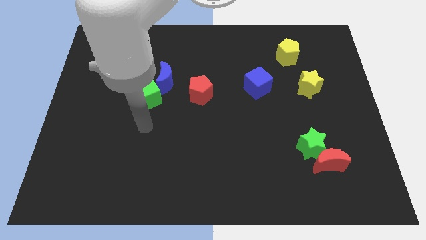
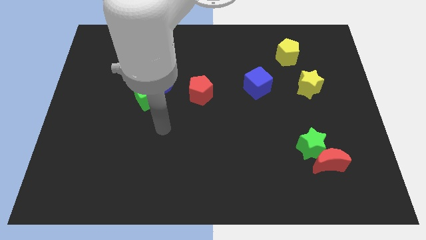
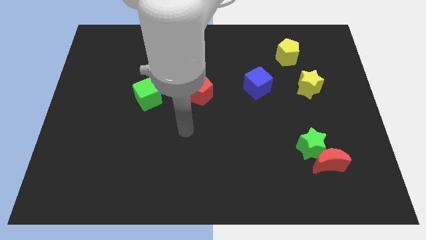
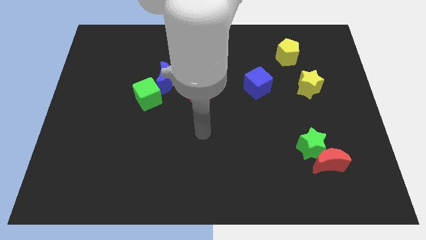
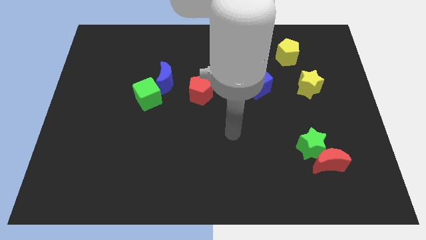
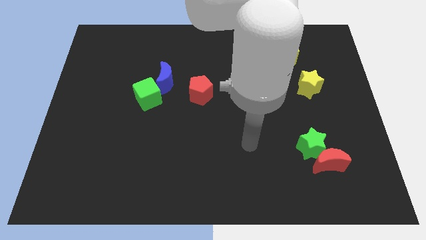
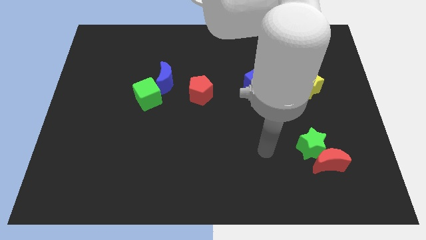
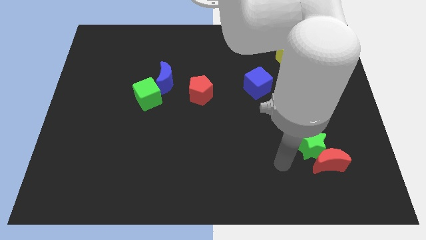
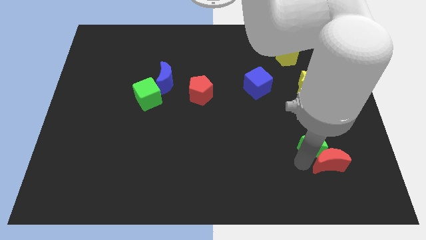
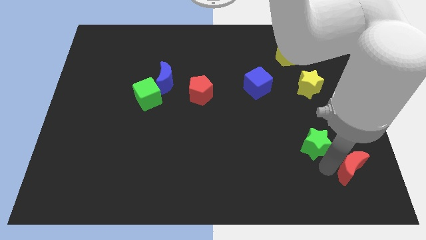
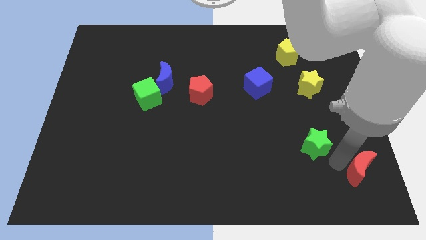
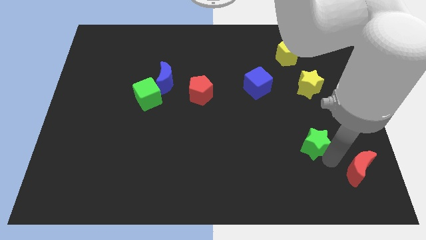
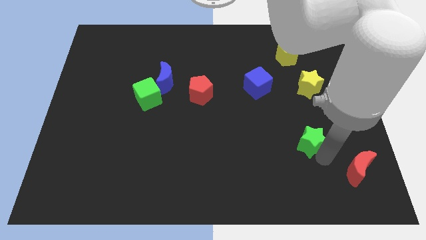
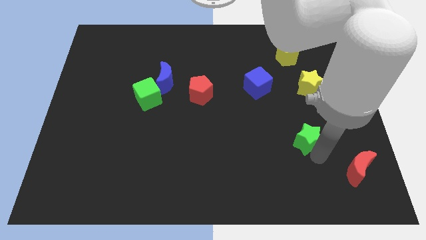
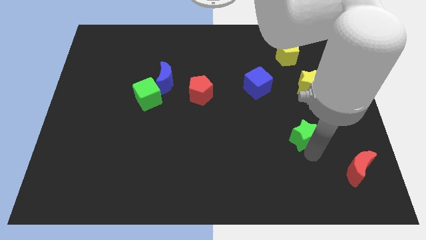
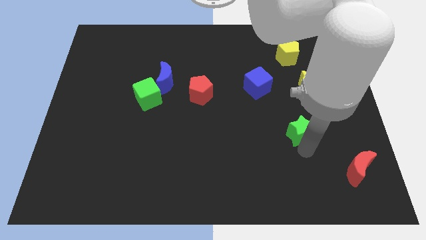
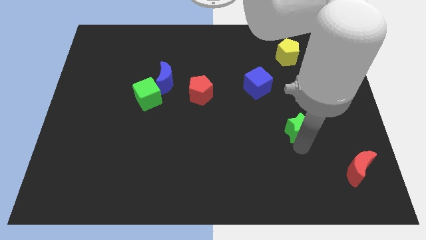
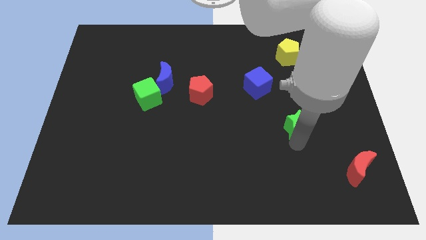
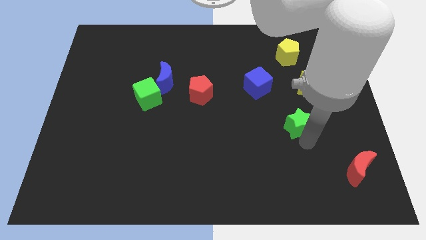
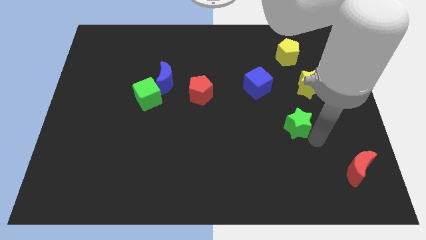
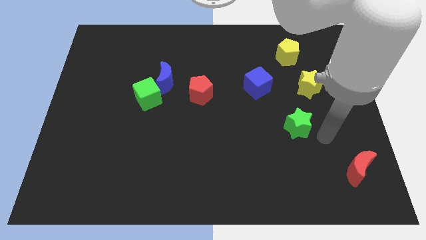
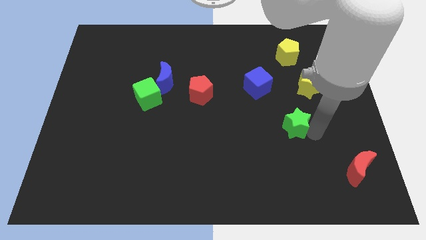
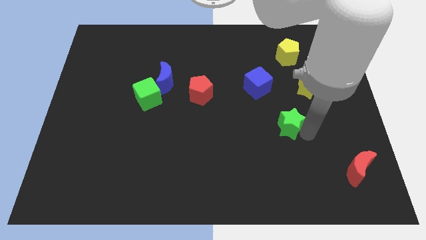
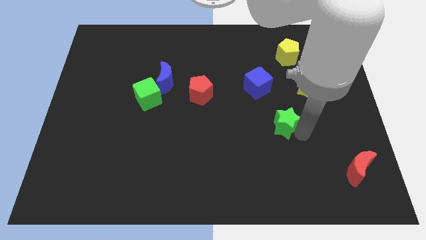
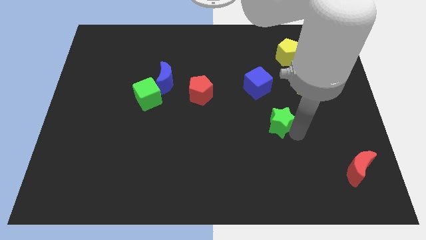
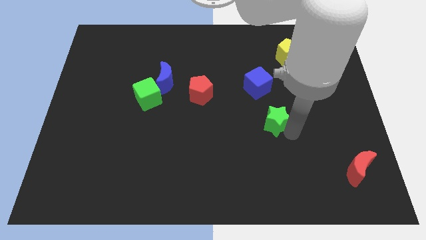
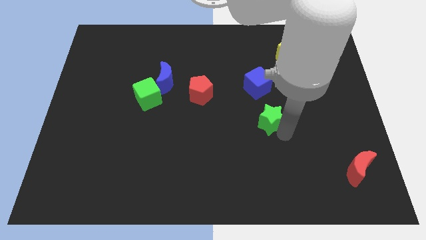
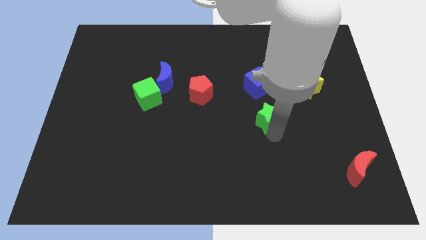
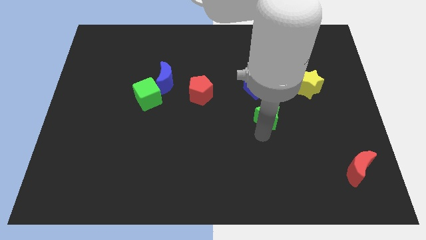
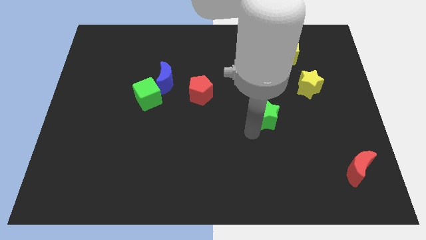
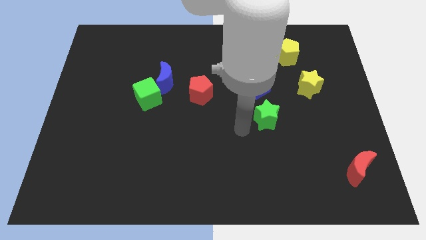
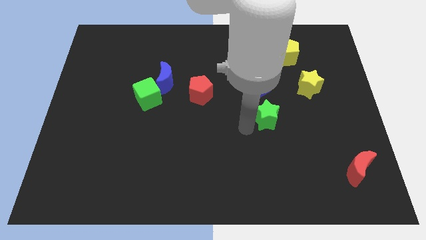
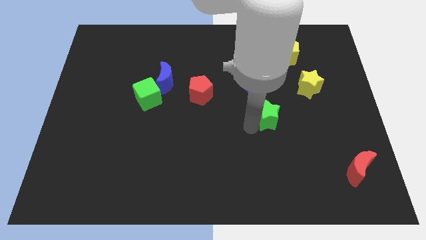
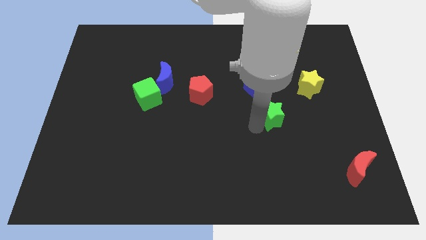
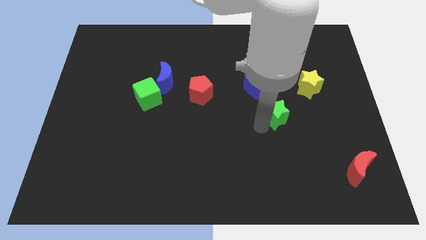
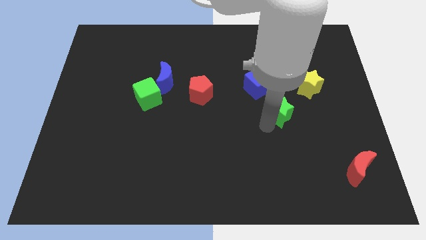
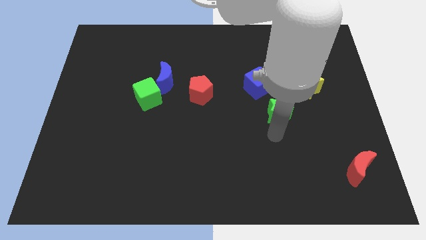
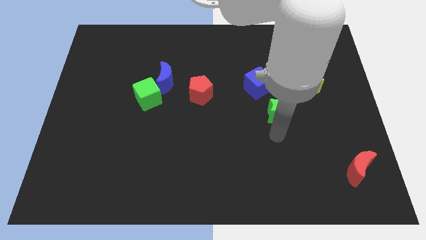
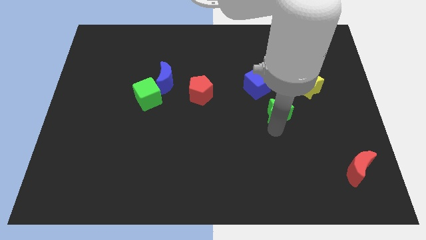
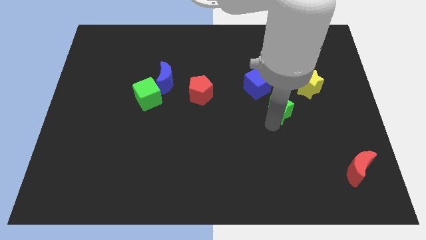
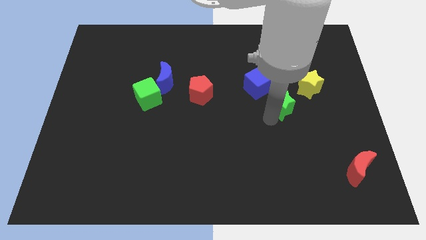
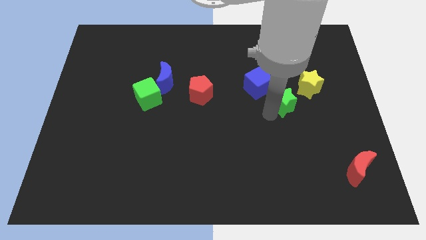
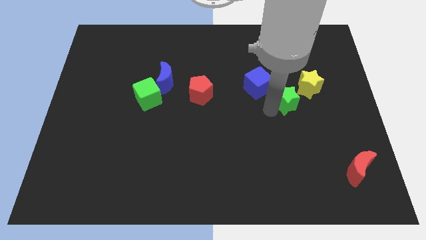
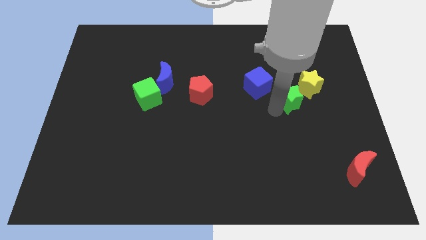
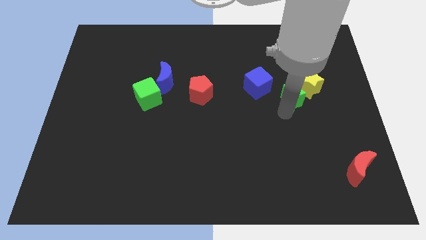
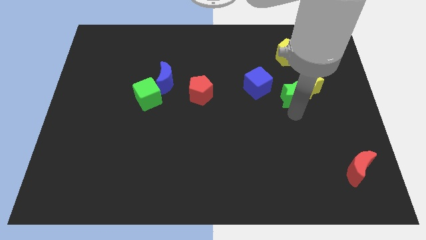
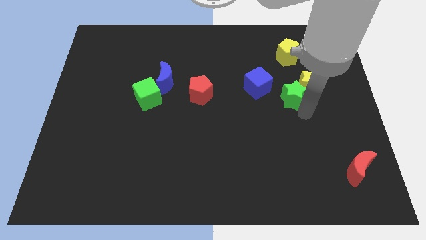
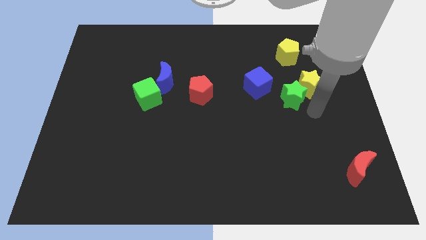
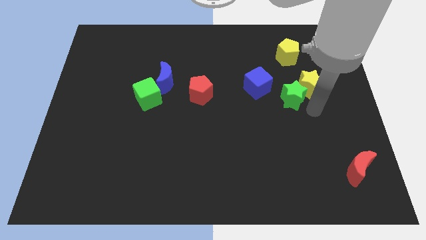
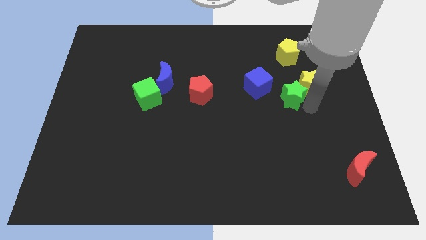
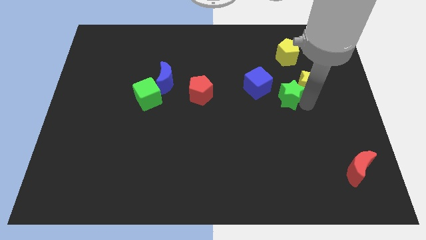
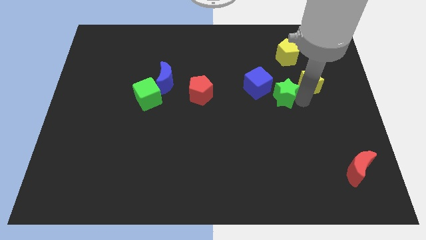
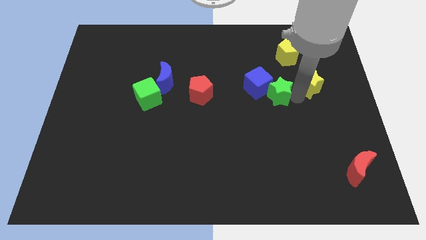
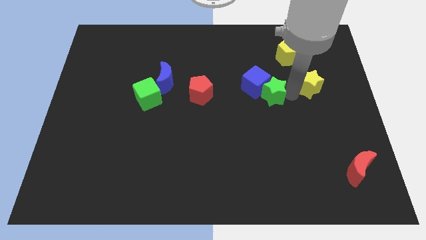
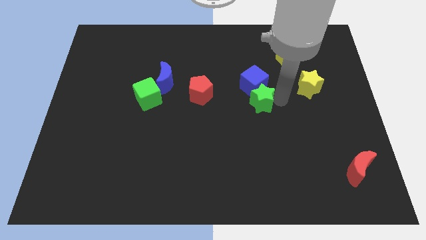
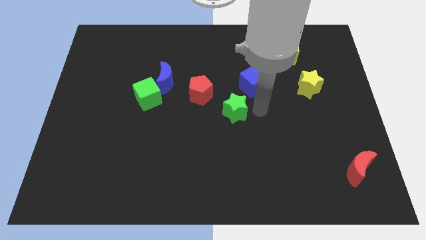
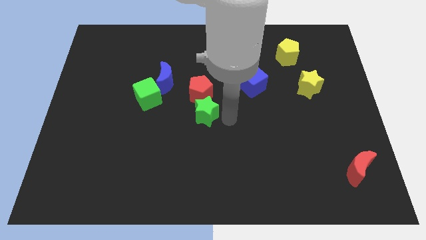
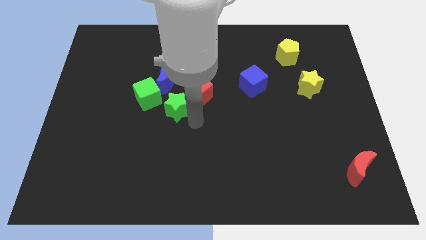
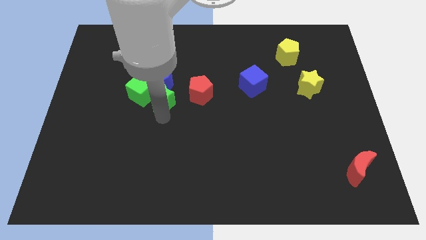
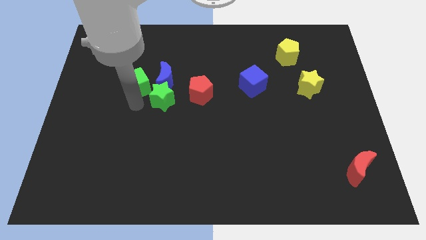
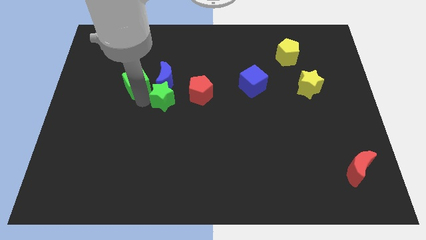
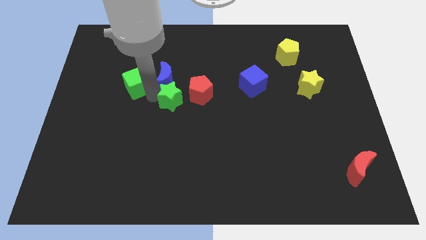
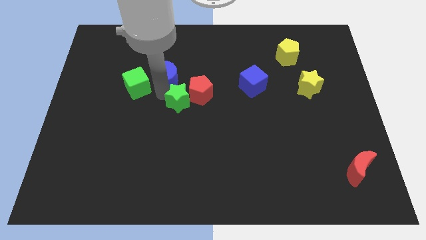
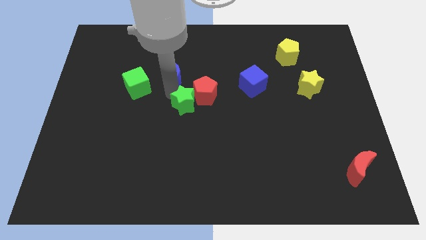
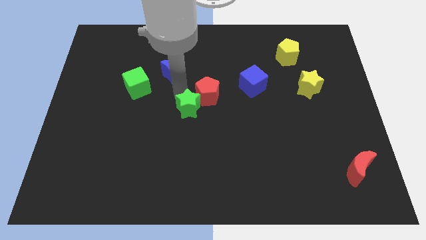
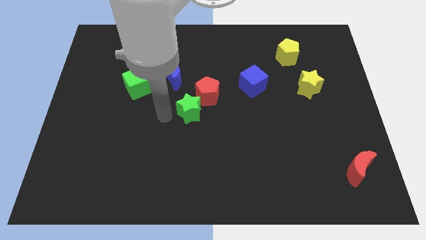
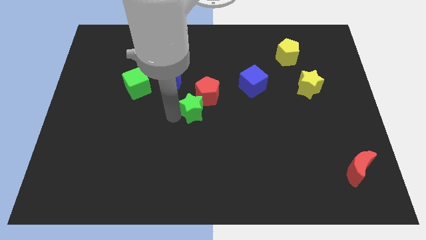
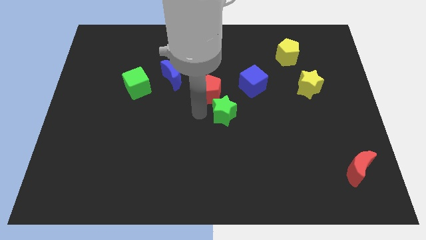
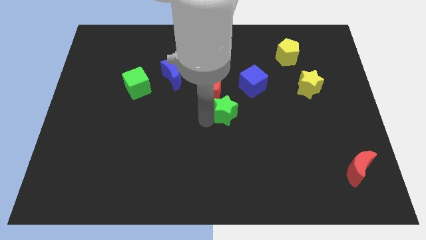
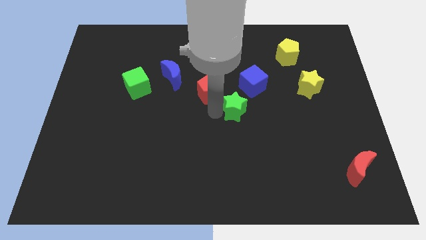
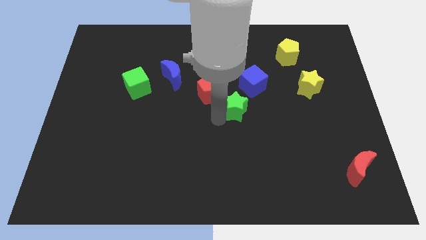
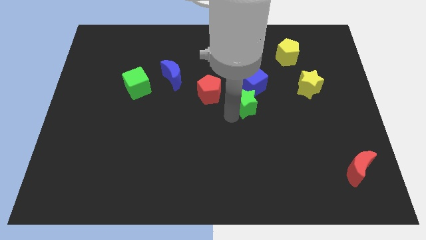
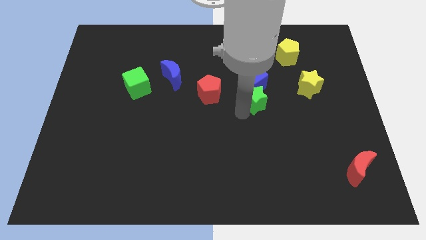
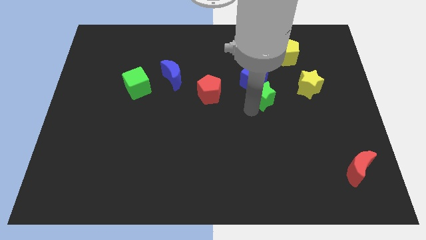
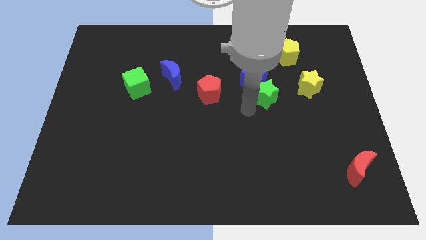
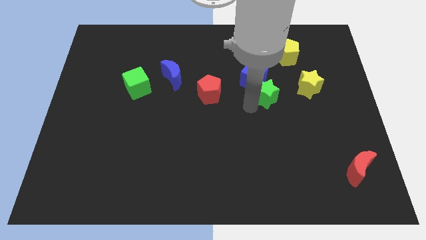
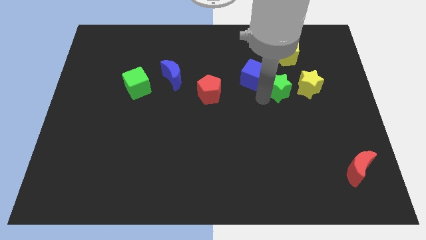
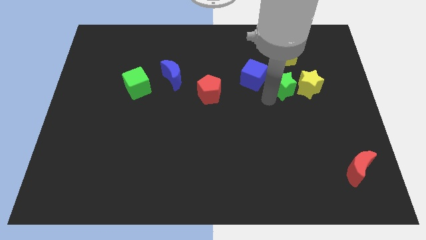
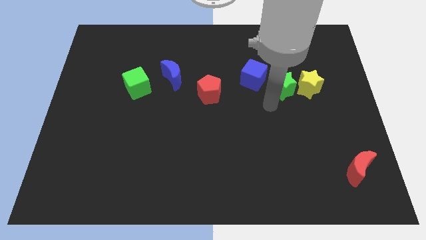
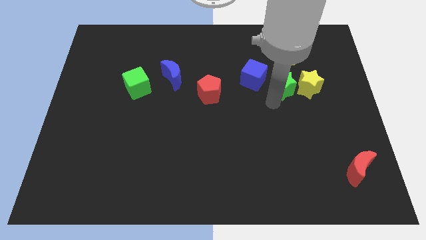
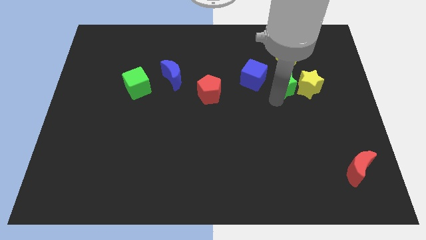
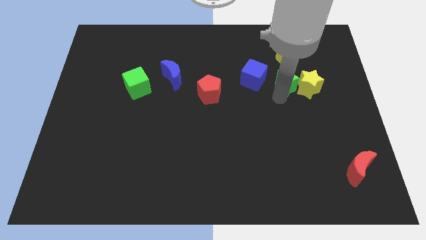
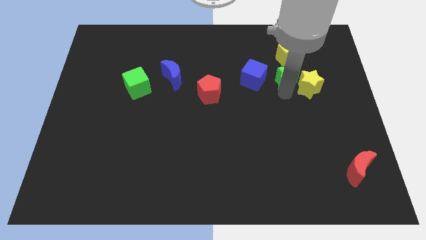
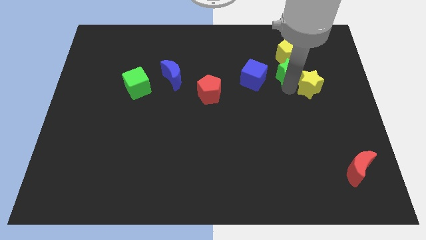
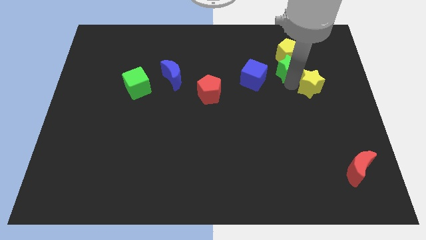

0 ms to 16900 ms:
move the green star close to the yellow pentagon
